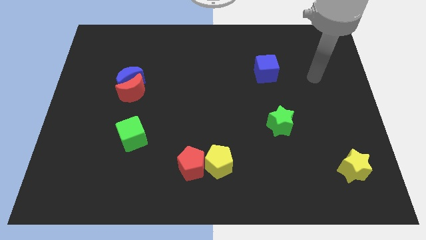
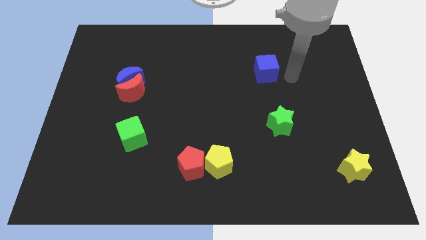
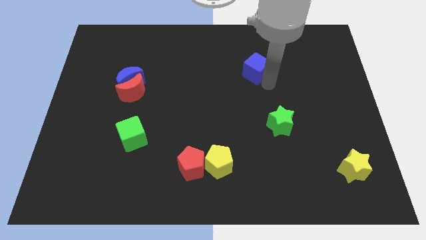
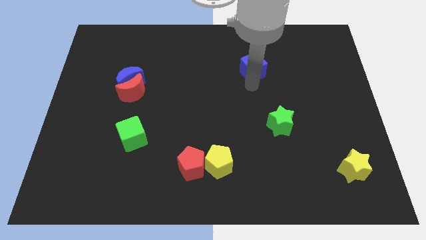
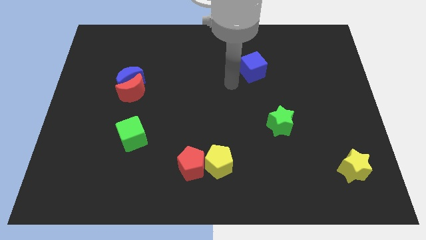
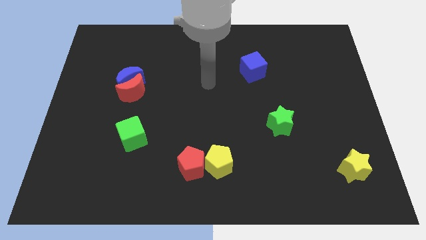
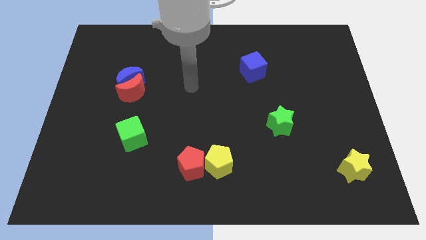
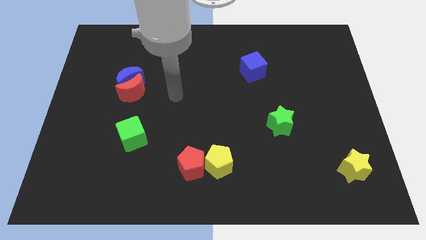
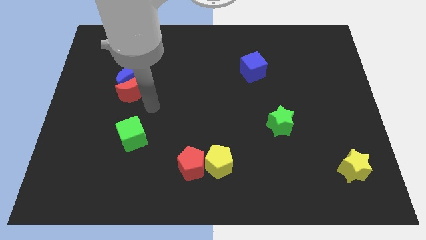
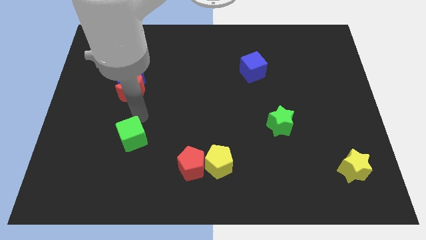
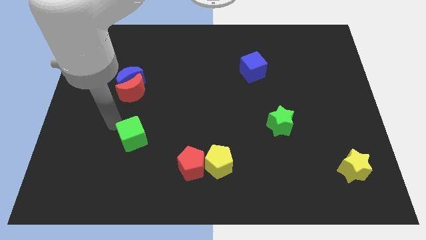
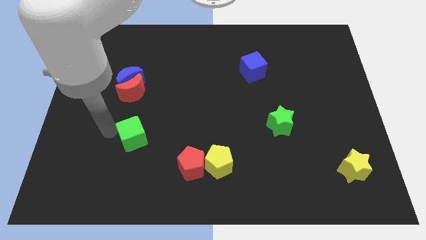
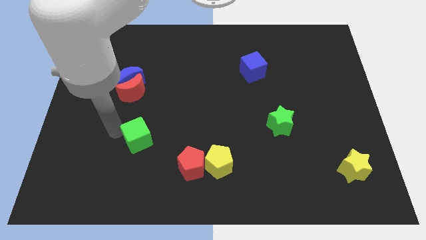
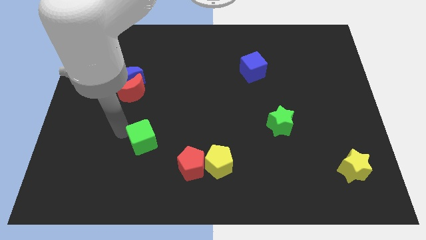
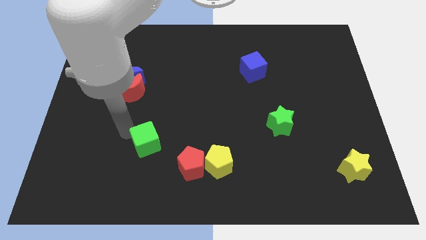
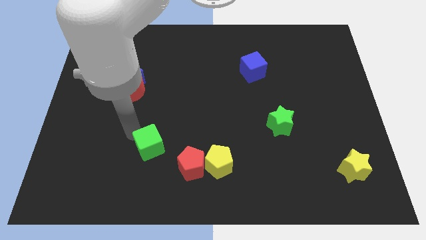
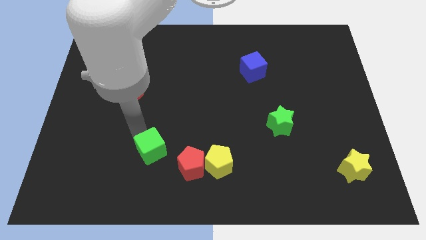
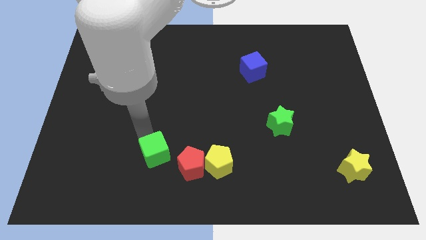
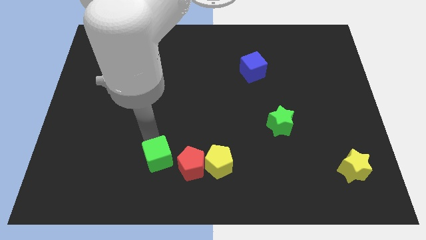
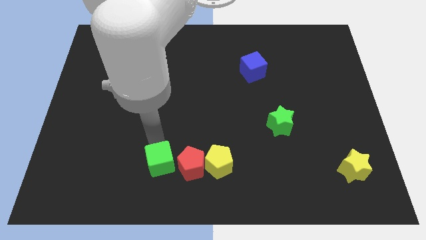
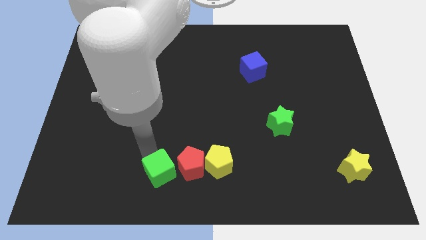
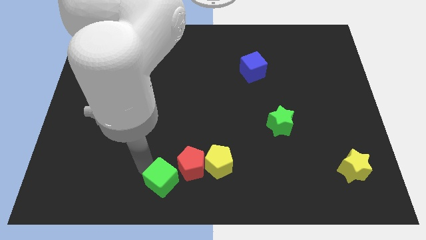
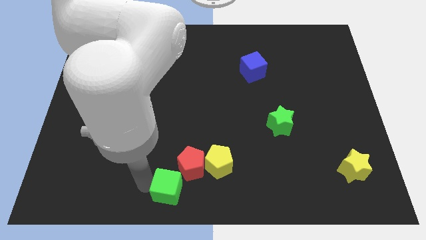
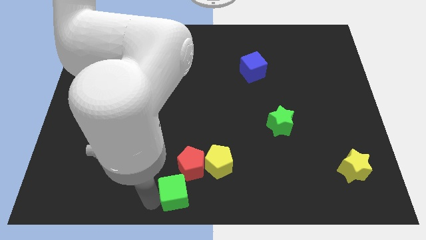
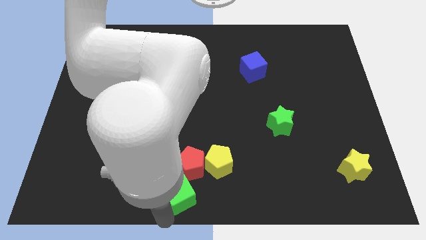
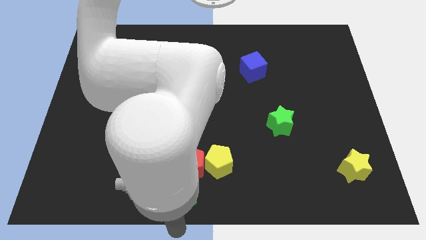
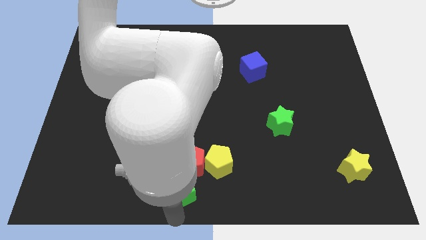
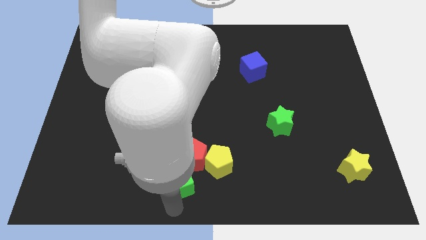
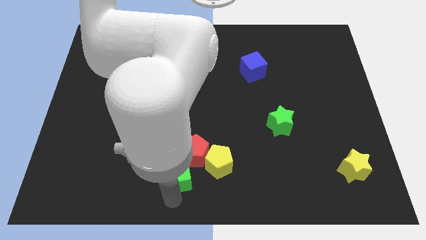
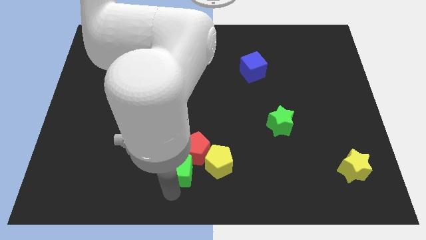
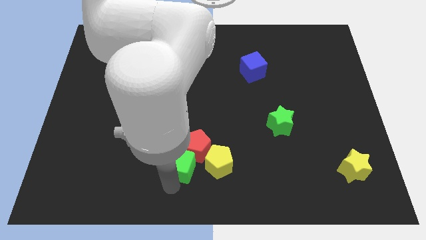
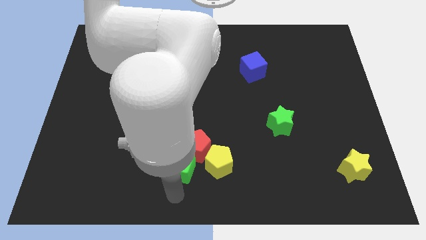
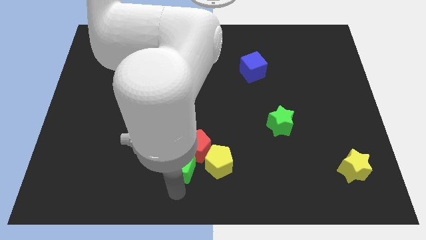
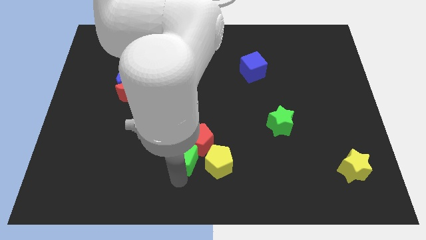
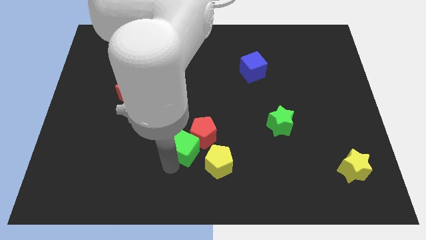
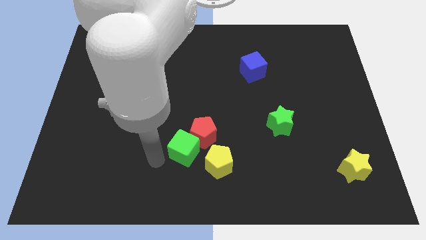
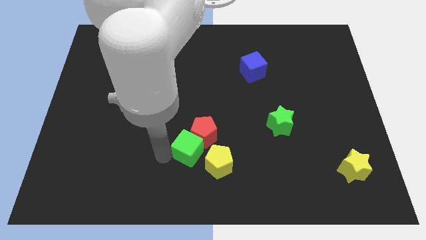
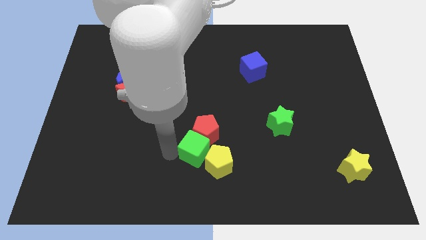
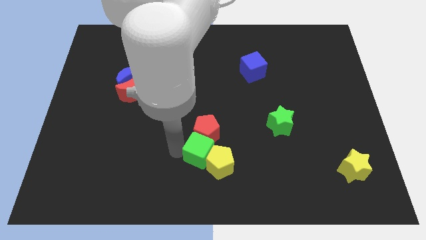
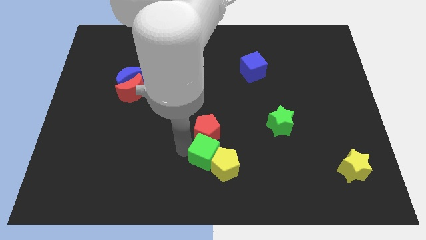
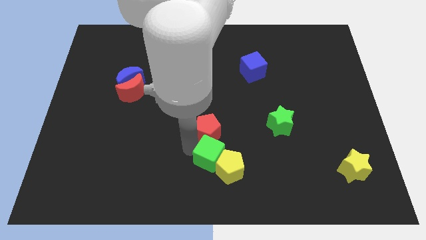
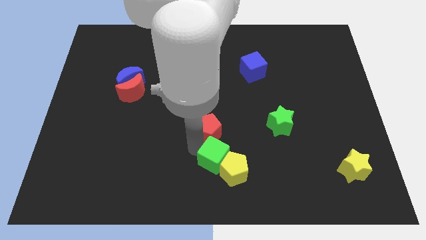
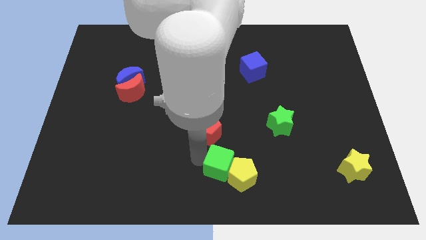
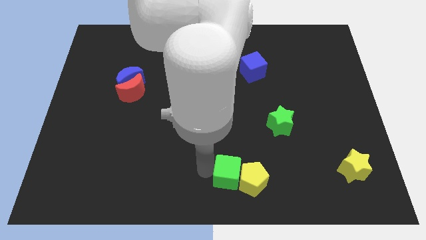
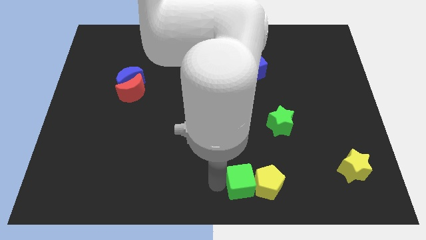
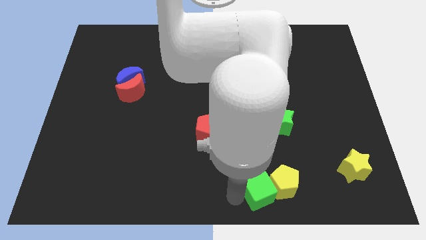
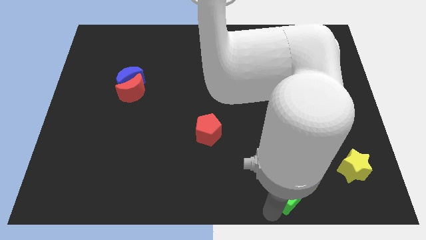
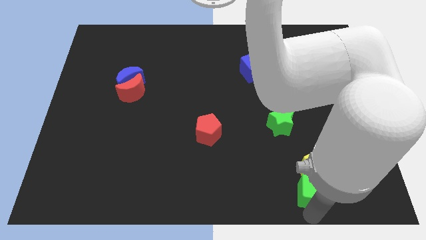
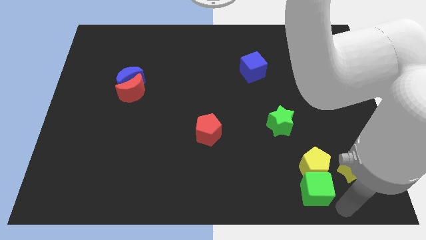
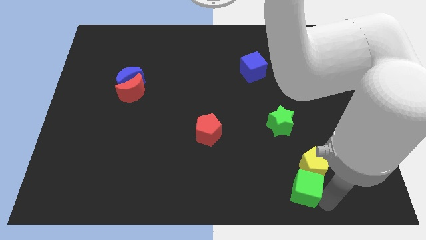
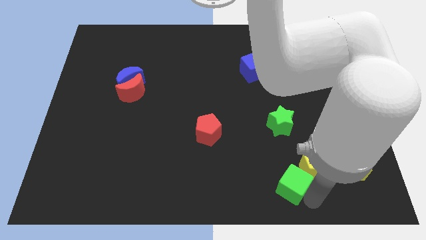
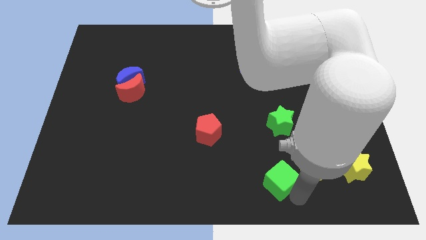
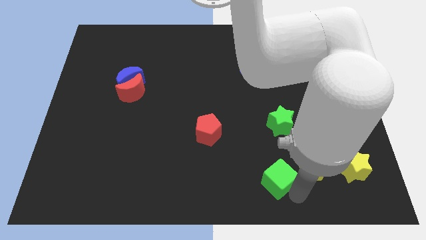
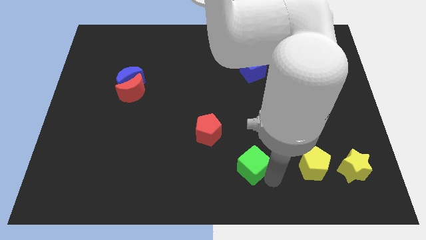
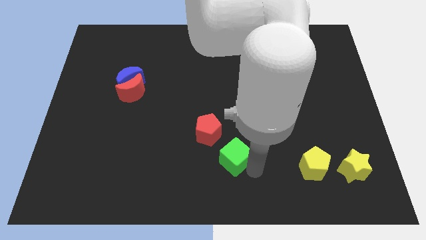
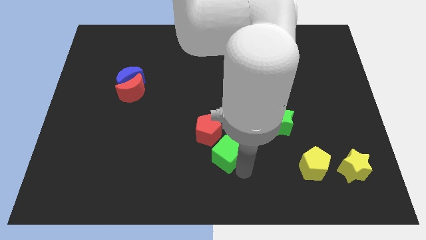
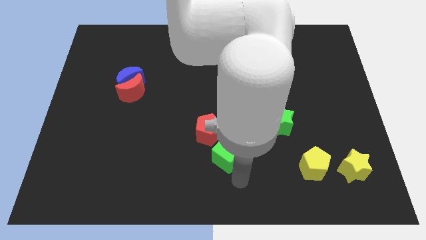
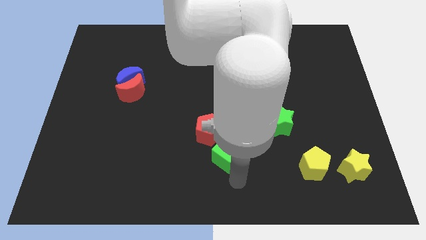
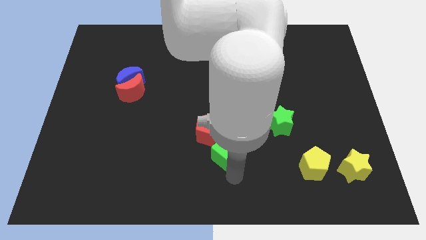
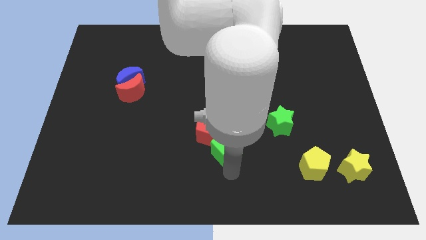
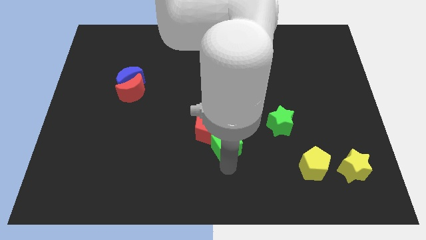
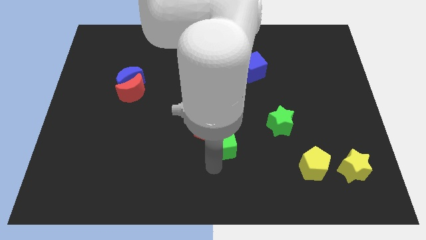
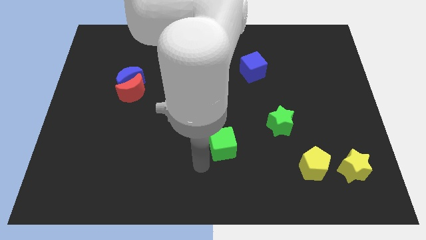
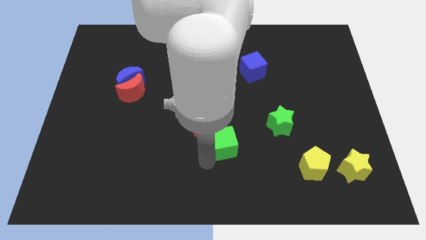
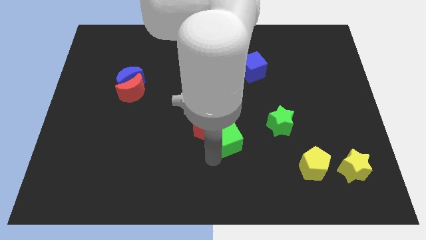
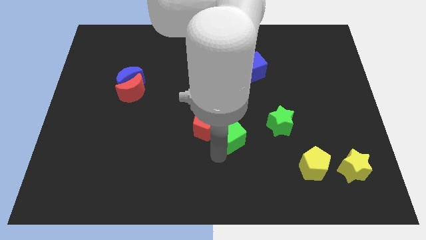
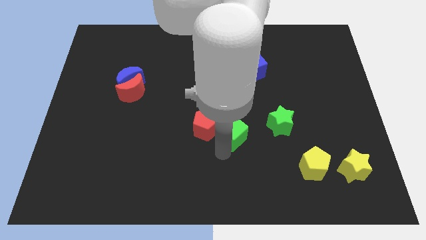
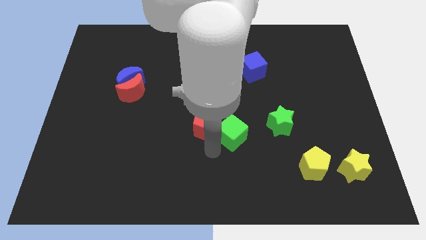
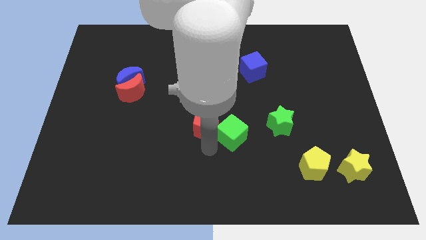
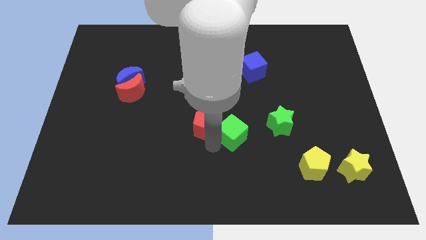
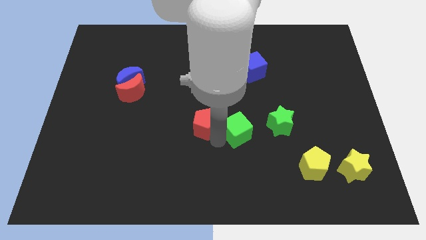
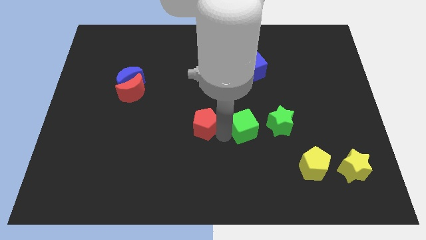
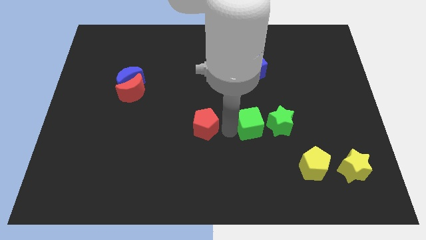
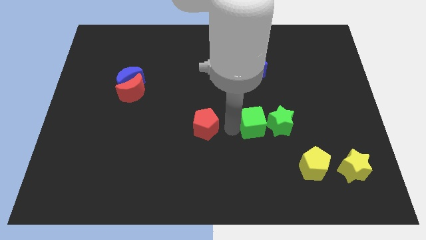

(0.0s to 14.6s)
push the green cube towards the green star
